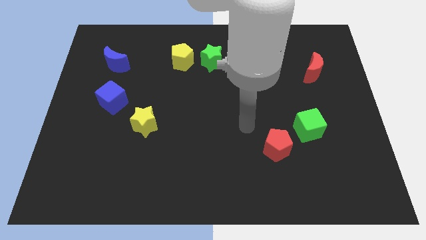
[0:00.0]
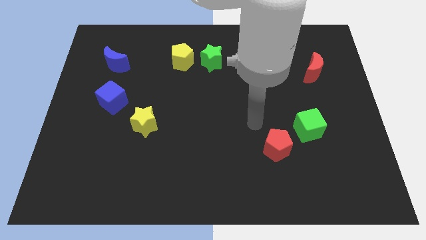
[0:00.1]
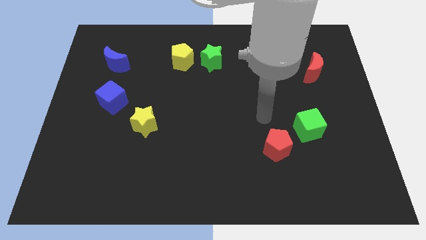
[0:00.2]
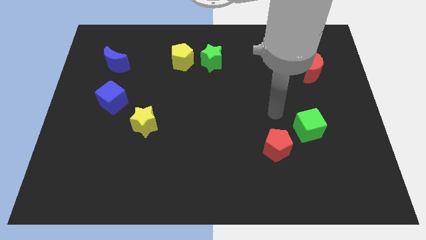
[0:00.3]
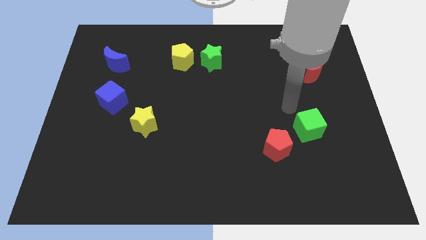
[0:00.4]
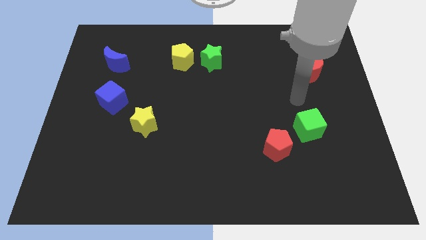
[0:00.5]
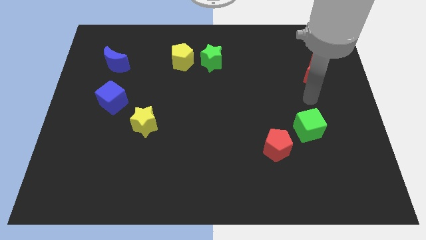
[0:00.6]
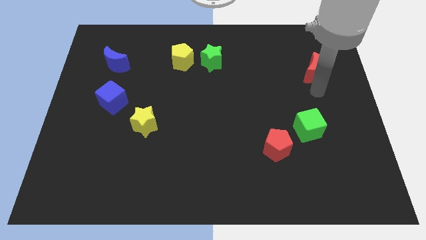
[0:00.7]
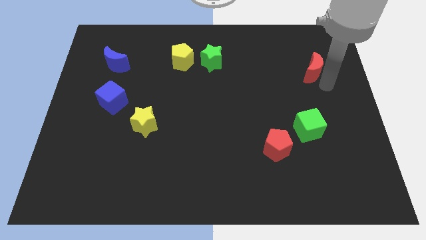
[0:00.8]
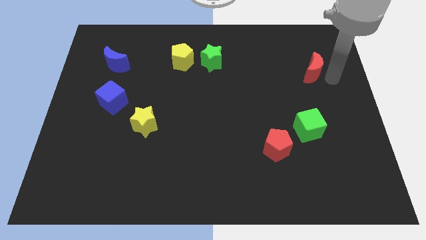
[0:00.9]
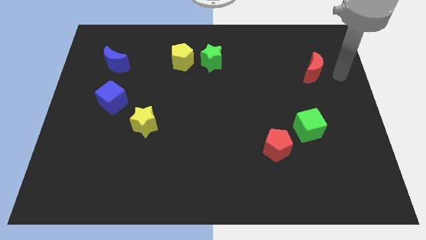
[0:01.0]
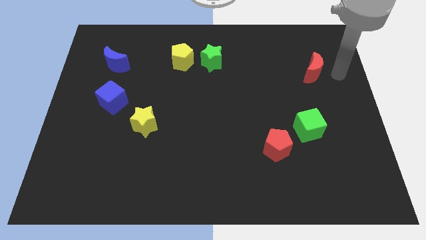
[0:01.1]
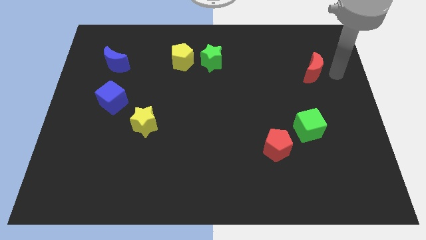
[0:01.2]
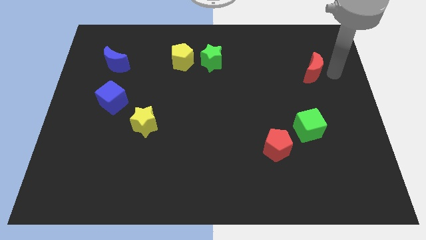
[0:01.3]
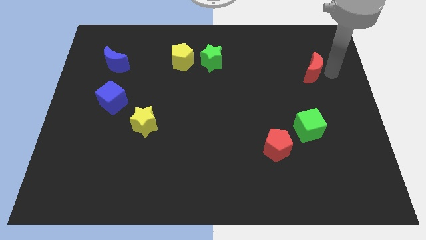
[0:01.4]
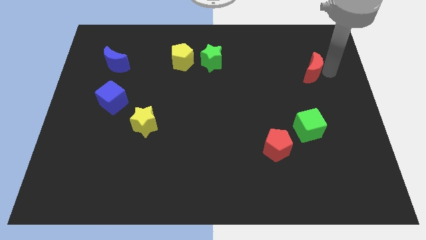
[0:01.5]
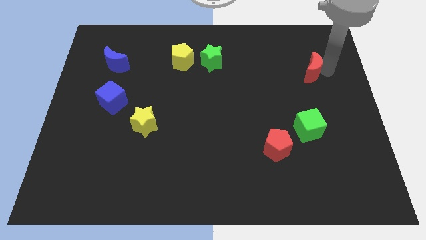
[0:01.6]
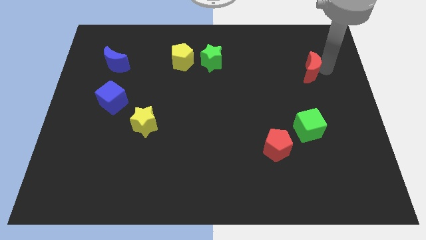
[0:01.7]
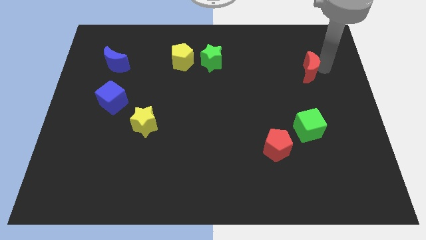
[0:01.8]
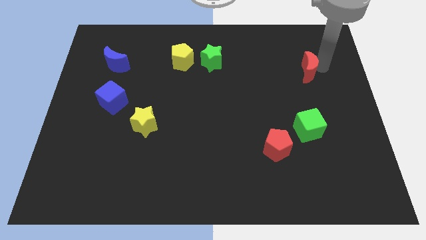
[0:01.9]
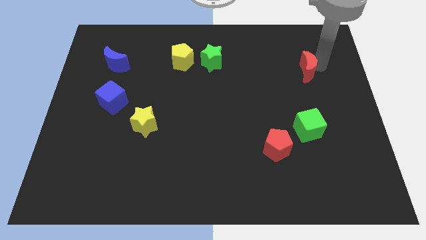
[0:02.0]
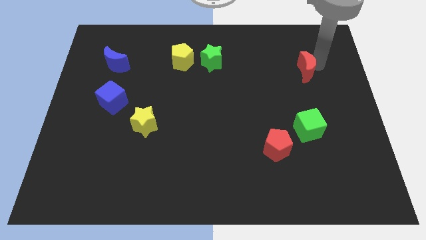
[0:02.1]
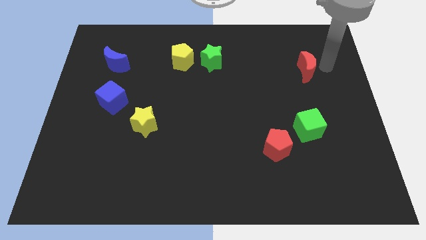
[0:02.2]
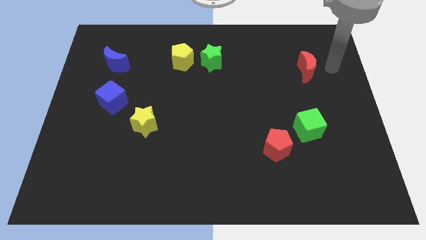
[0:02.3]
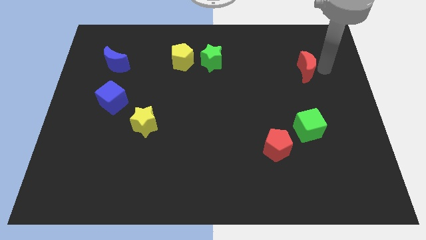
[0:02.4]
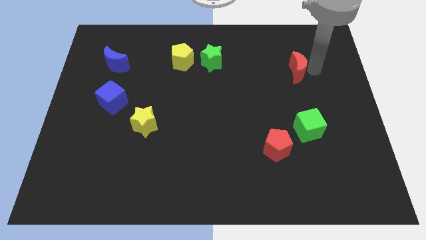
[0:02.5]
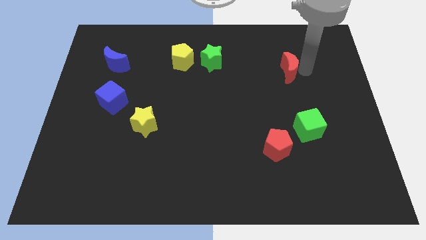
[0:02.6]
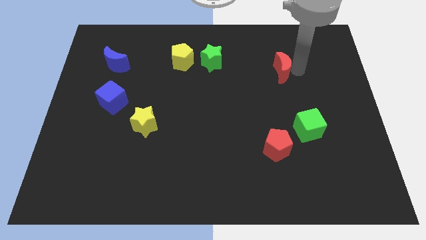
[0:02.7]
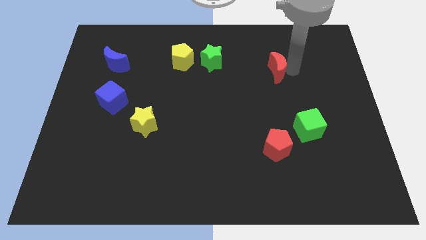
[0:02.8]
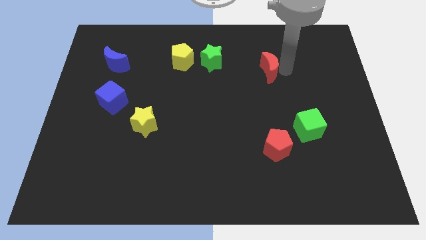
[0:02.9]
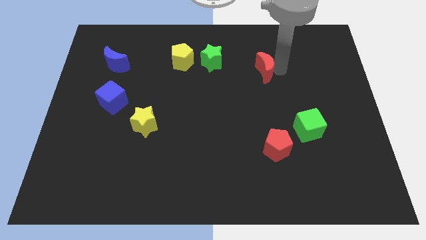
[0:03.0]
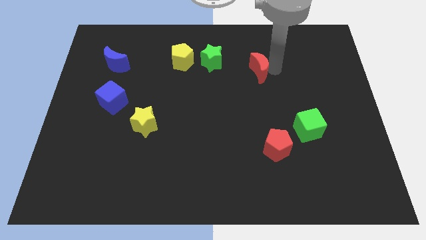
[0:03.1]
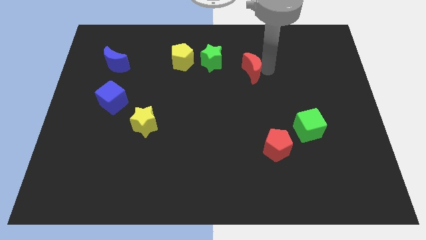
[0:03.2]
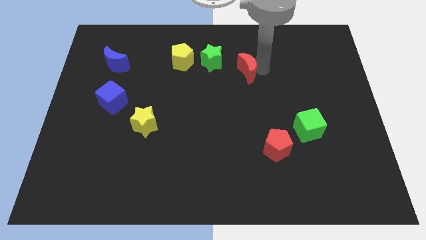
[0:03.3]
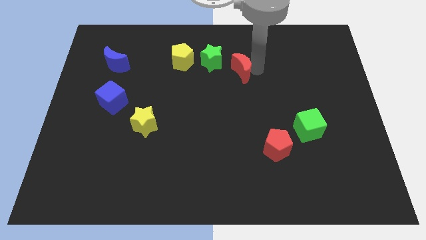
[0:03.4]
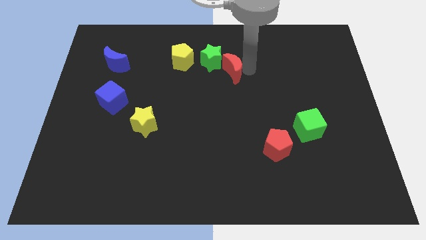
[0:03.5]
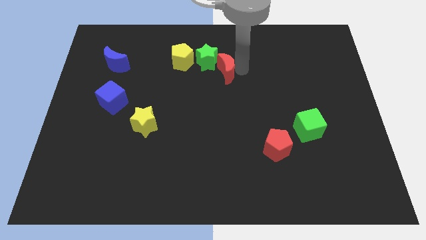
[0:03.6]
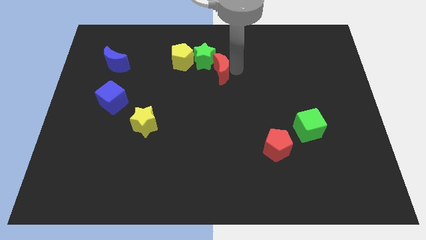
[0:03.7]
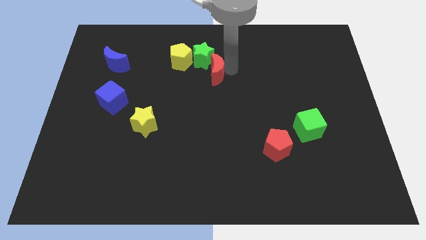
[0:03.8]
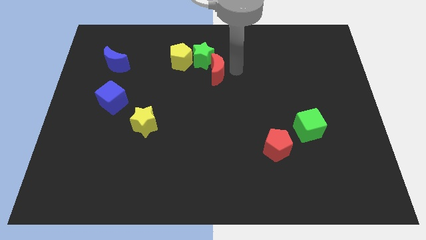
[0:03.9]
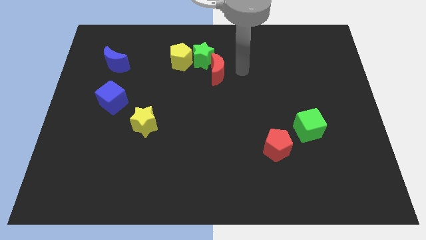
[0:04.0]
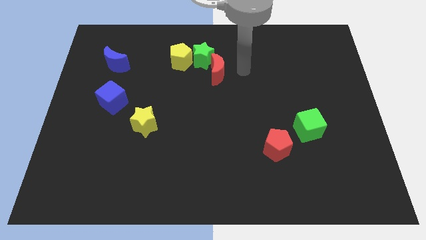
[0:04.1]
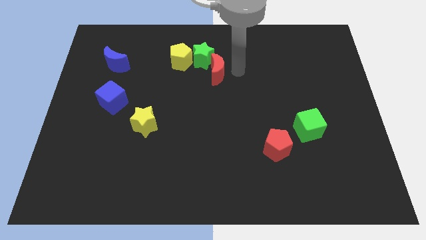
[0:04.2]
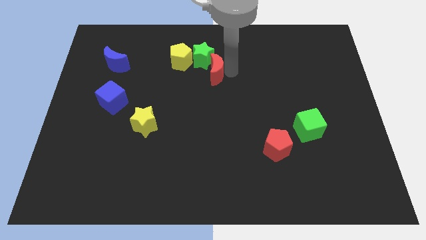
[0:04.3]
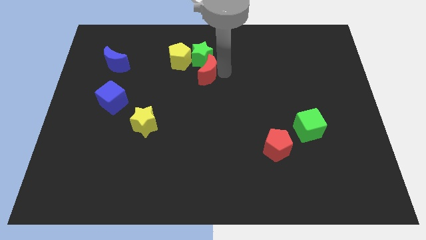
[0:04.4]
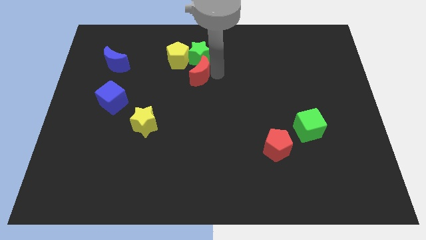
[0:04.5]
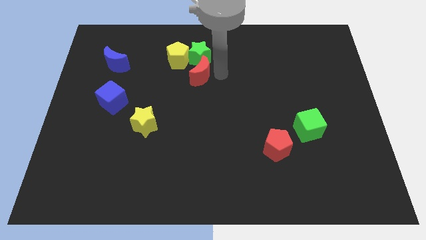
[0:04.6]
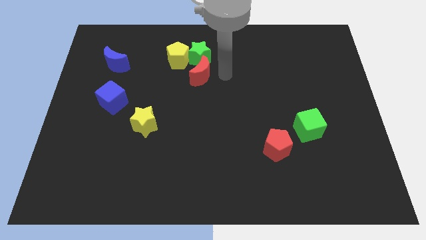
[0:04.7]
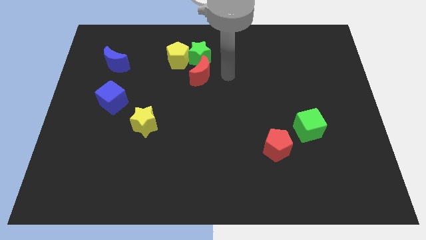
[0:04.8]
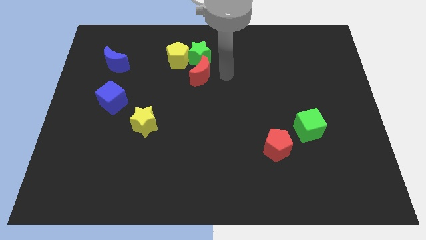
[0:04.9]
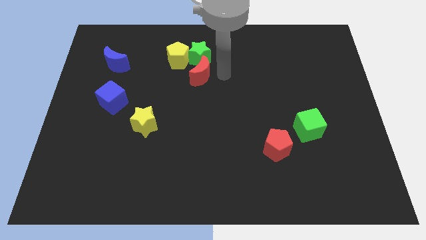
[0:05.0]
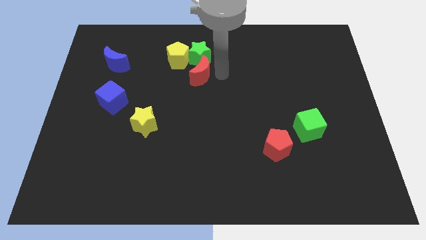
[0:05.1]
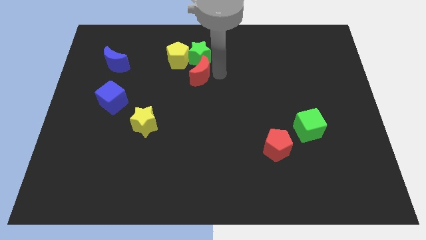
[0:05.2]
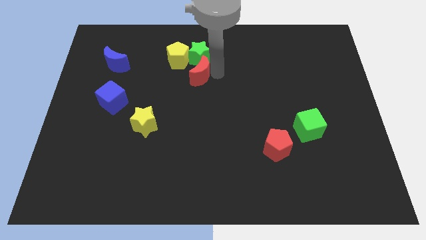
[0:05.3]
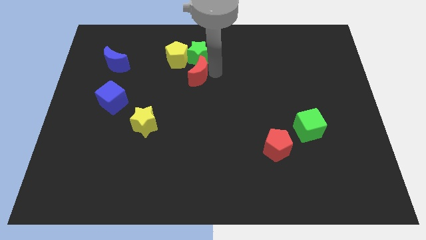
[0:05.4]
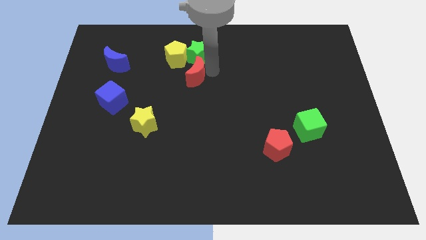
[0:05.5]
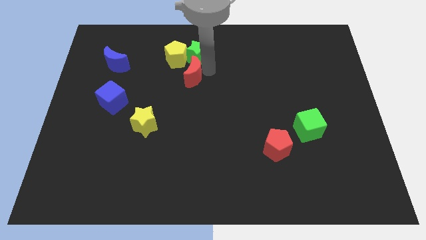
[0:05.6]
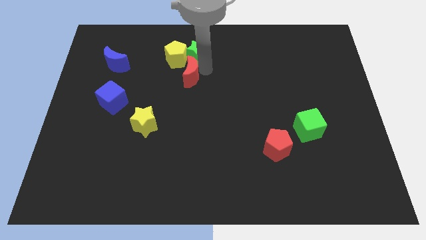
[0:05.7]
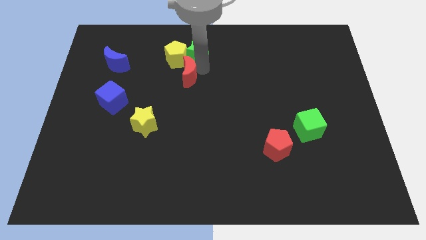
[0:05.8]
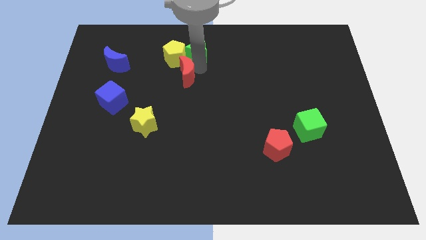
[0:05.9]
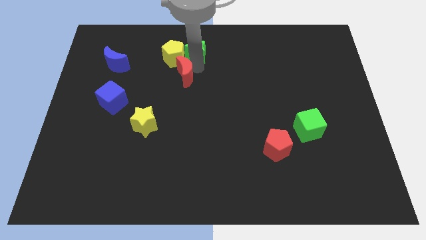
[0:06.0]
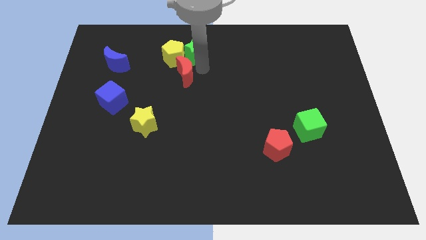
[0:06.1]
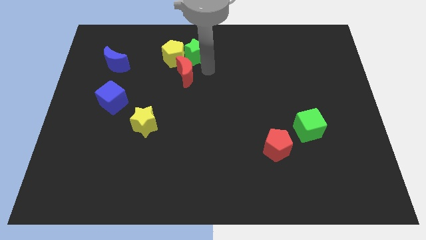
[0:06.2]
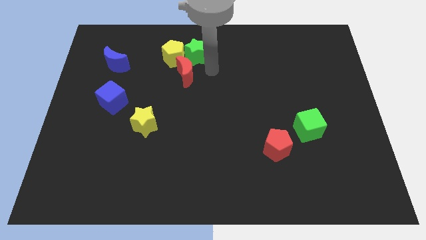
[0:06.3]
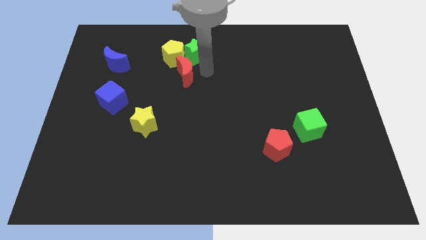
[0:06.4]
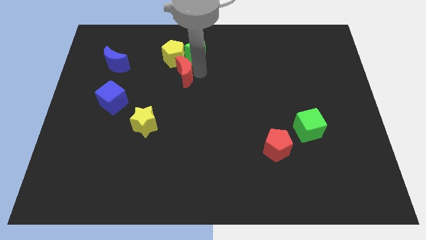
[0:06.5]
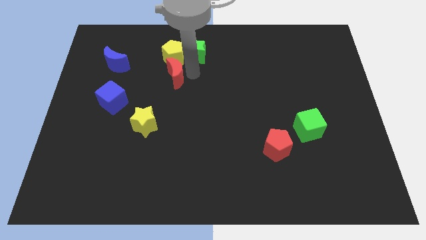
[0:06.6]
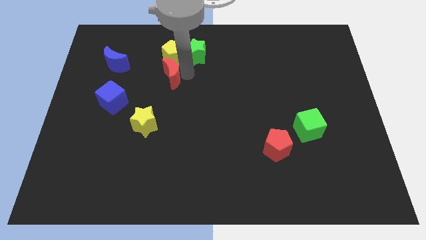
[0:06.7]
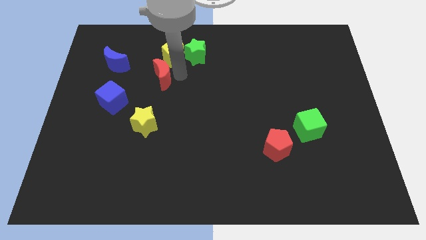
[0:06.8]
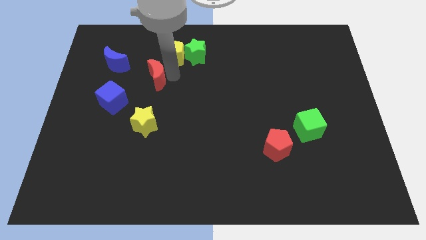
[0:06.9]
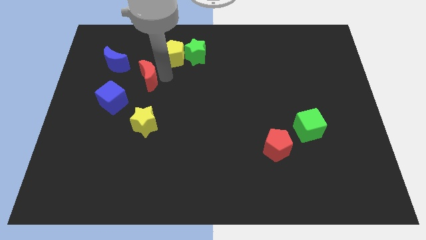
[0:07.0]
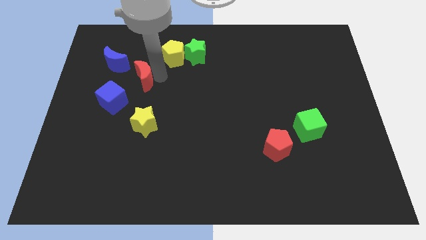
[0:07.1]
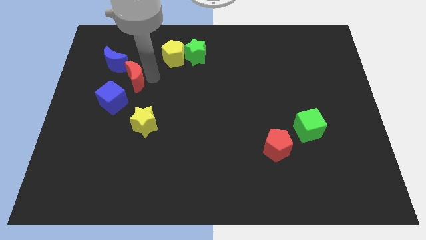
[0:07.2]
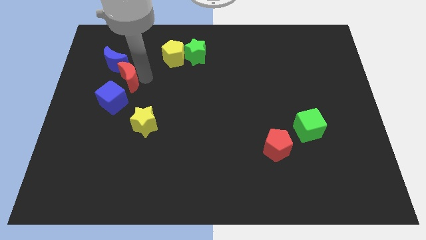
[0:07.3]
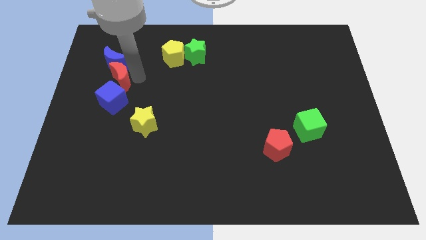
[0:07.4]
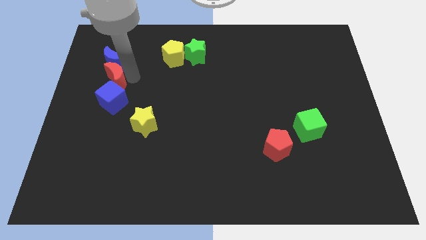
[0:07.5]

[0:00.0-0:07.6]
move the red moon to the top left of the blue cube
